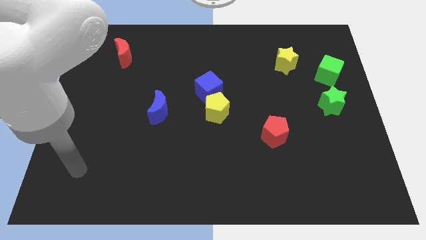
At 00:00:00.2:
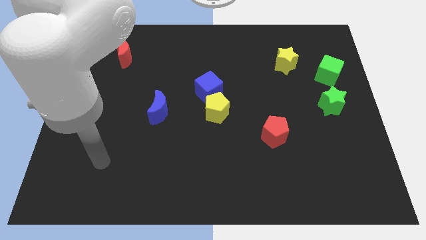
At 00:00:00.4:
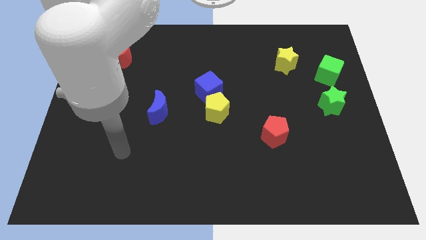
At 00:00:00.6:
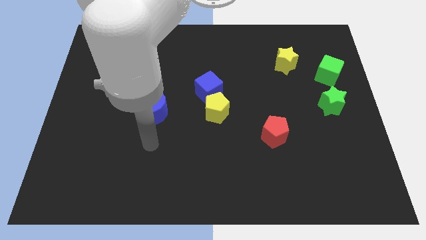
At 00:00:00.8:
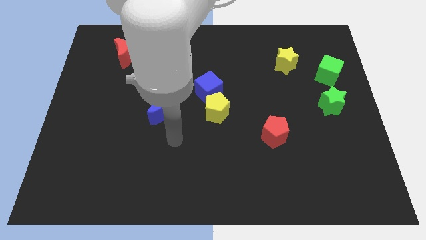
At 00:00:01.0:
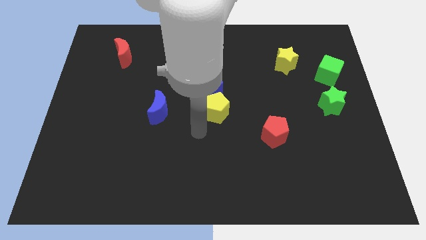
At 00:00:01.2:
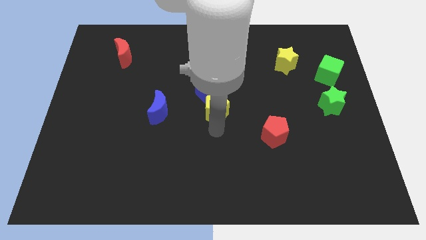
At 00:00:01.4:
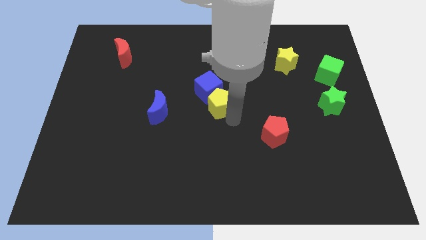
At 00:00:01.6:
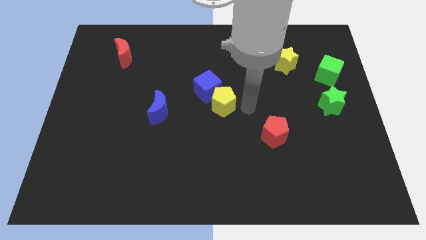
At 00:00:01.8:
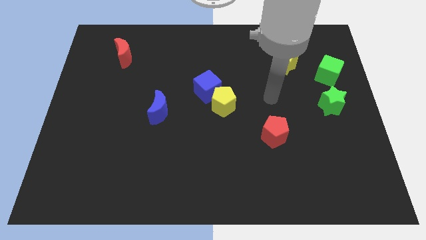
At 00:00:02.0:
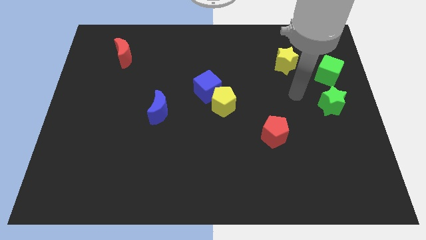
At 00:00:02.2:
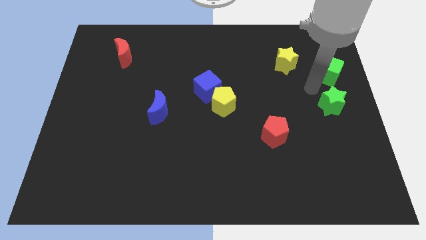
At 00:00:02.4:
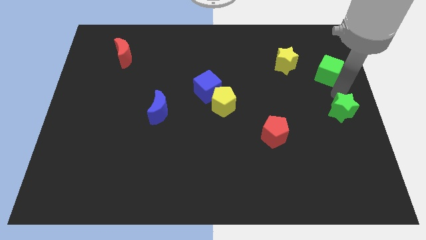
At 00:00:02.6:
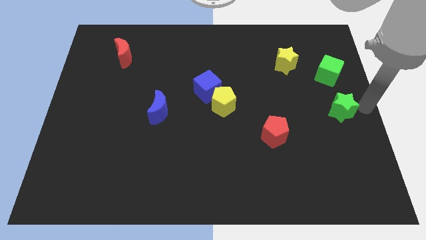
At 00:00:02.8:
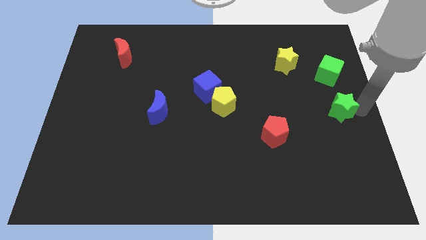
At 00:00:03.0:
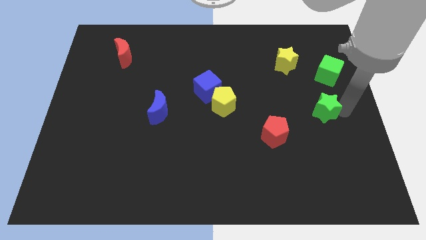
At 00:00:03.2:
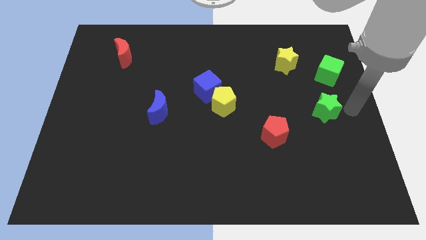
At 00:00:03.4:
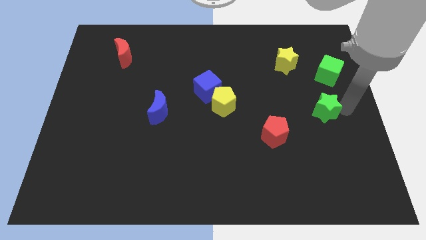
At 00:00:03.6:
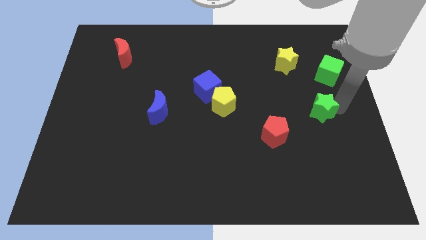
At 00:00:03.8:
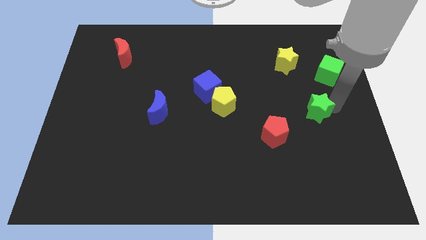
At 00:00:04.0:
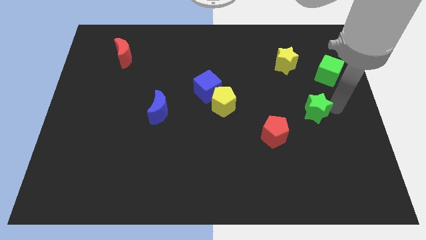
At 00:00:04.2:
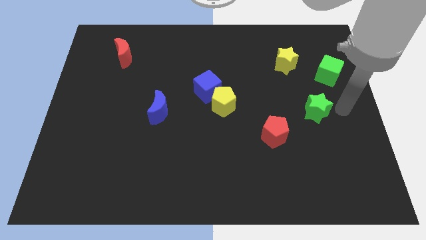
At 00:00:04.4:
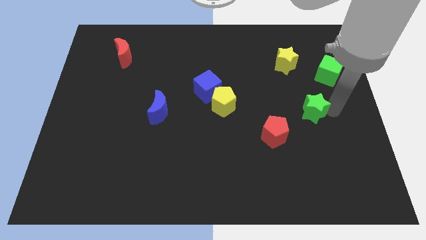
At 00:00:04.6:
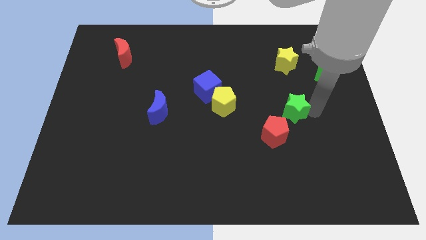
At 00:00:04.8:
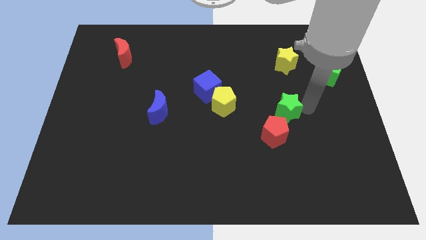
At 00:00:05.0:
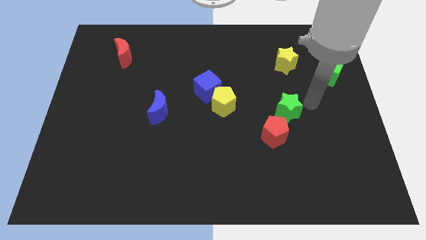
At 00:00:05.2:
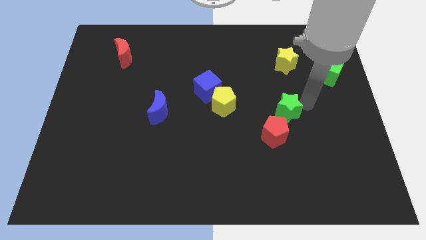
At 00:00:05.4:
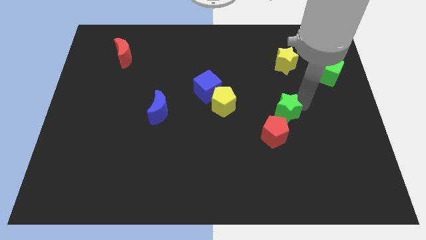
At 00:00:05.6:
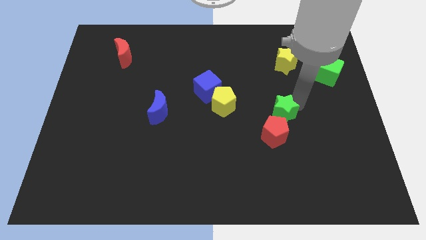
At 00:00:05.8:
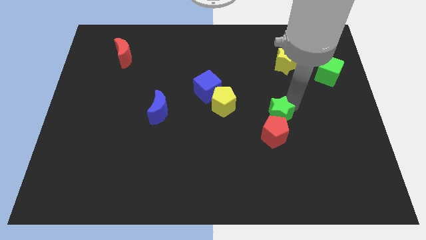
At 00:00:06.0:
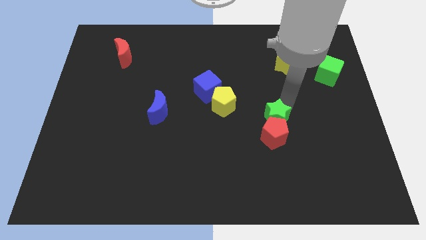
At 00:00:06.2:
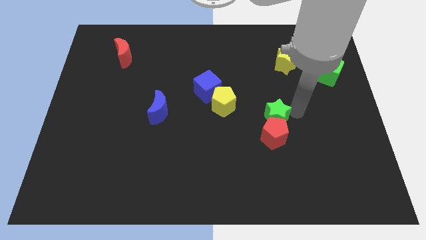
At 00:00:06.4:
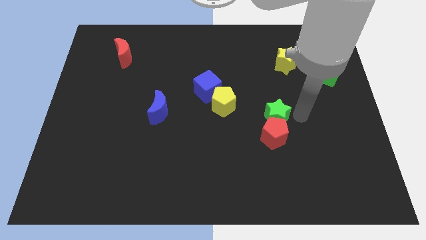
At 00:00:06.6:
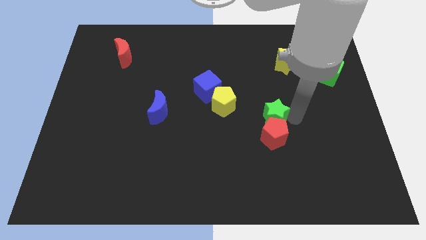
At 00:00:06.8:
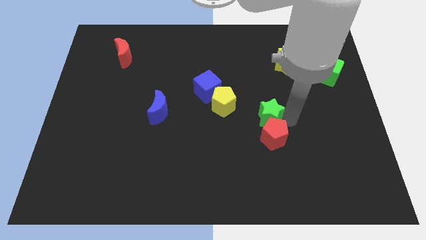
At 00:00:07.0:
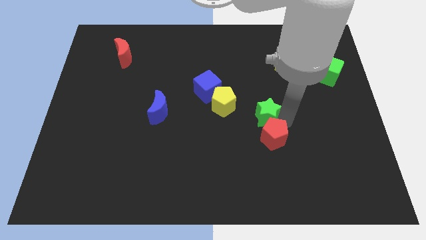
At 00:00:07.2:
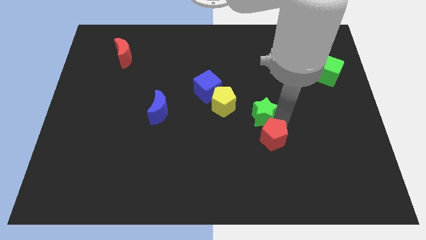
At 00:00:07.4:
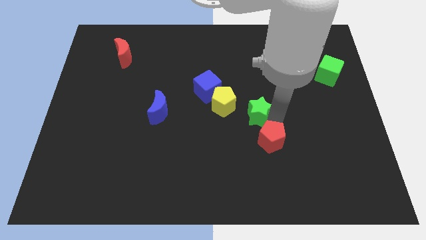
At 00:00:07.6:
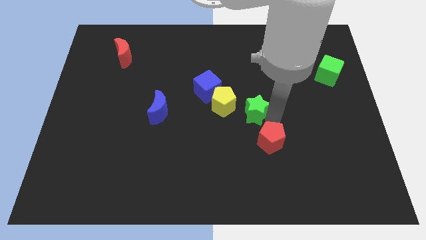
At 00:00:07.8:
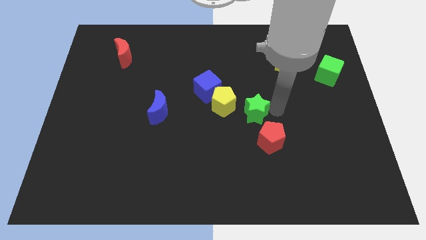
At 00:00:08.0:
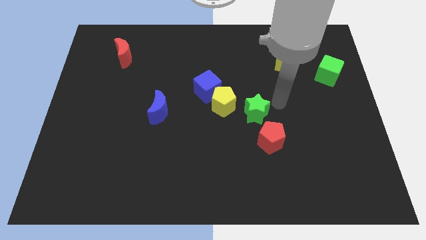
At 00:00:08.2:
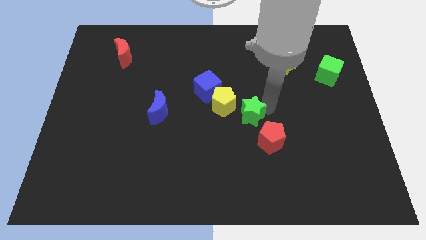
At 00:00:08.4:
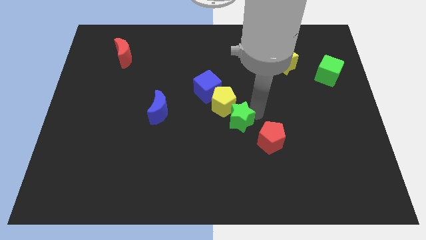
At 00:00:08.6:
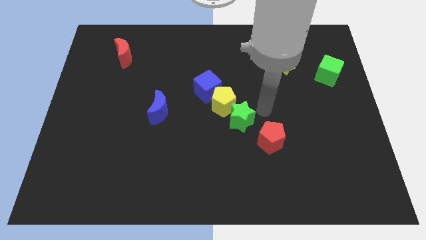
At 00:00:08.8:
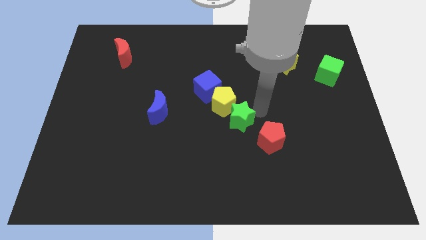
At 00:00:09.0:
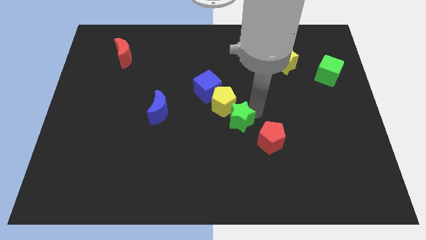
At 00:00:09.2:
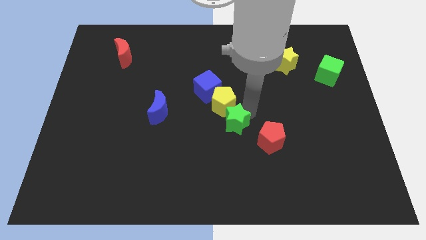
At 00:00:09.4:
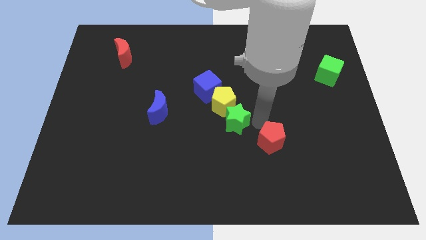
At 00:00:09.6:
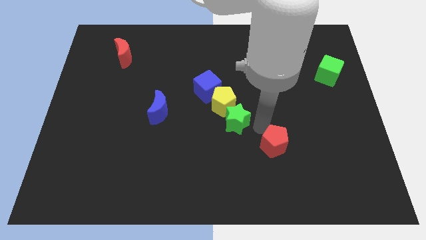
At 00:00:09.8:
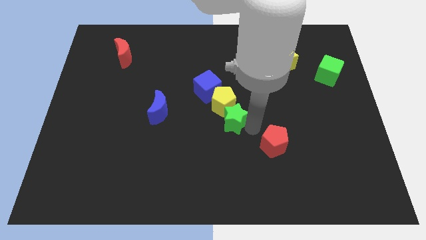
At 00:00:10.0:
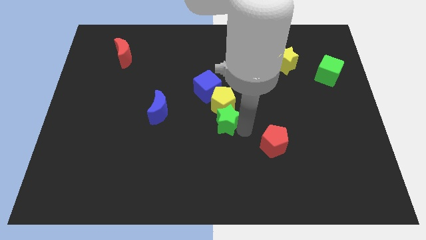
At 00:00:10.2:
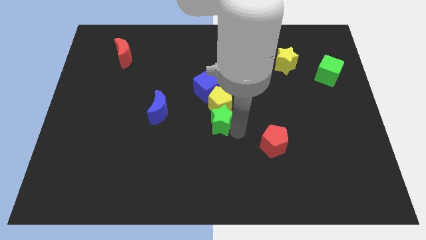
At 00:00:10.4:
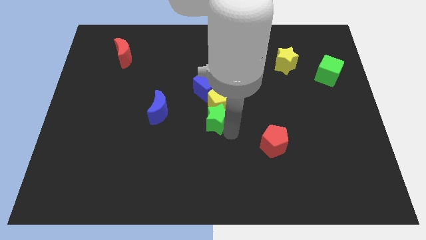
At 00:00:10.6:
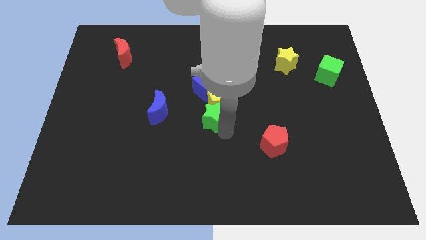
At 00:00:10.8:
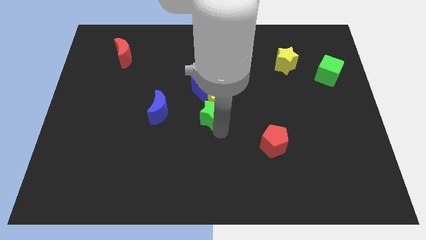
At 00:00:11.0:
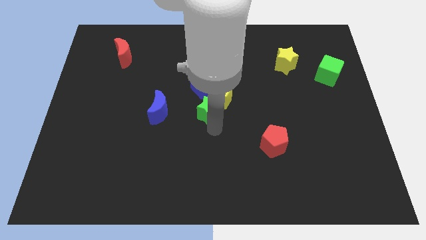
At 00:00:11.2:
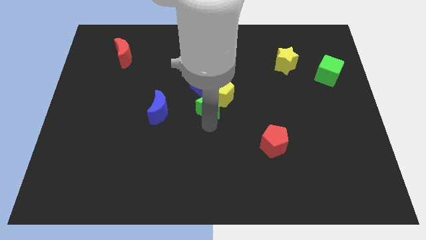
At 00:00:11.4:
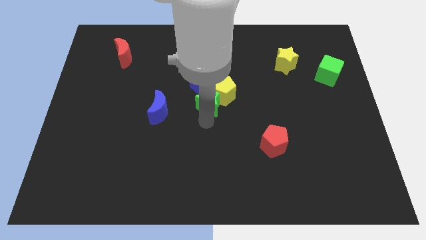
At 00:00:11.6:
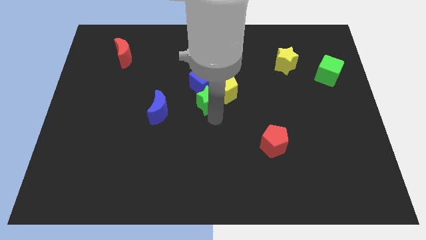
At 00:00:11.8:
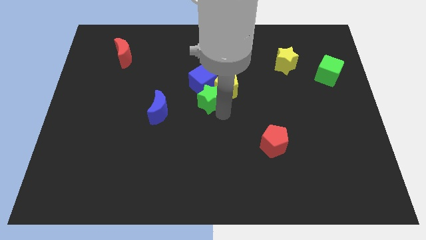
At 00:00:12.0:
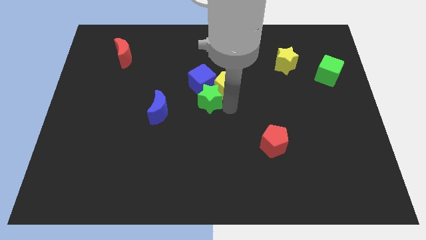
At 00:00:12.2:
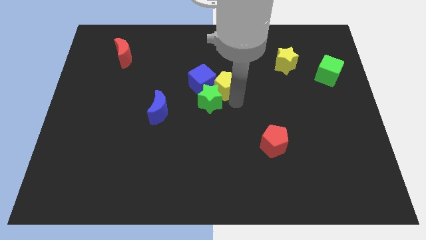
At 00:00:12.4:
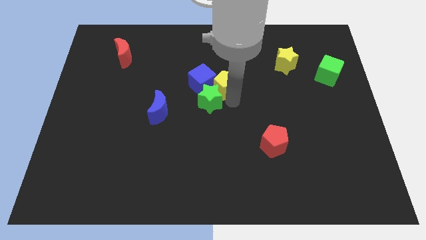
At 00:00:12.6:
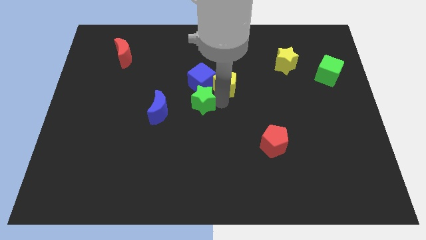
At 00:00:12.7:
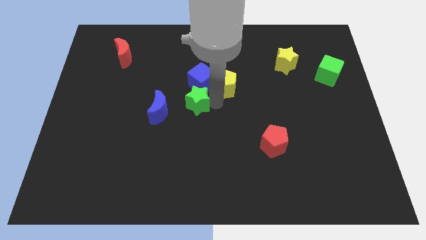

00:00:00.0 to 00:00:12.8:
move the green star to the top right side of the blue moon
